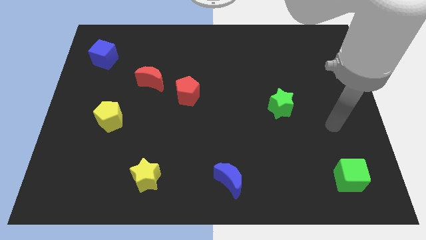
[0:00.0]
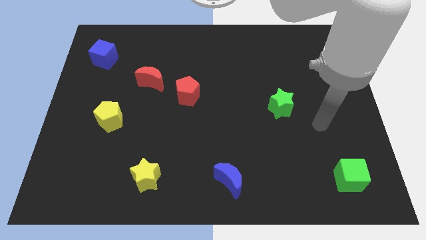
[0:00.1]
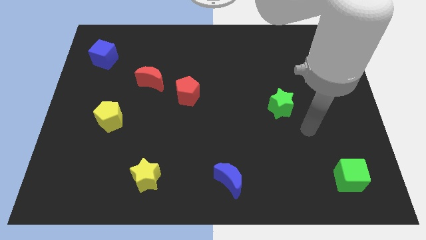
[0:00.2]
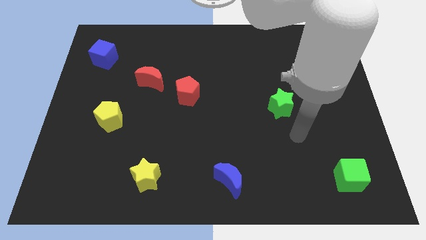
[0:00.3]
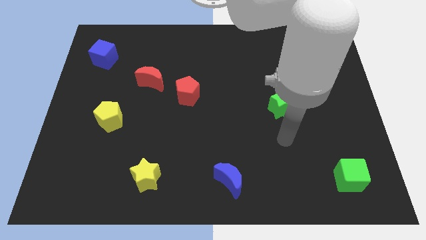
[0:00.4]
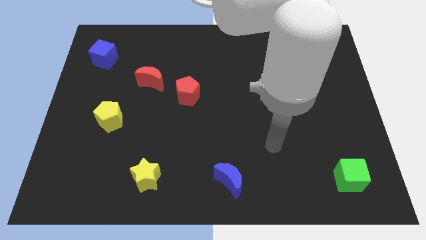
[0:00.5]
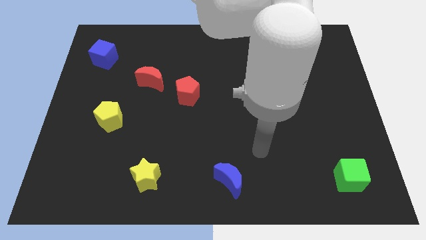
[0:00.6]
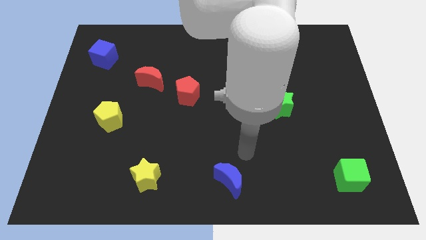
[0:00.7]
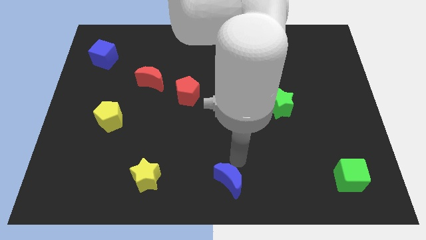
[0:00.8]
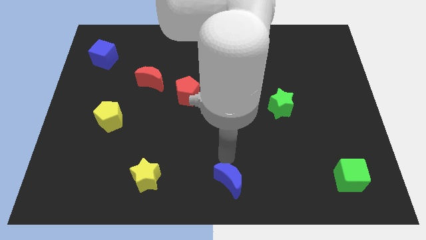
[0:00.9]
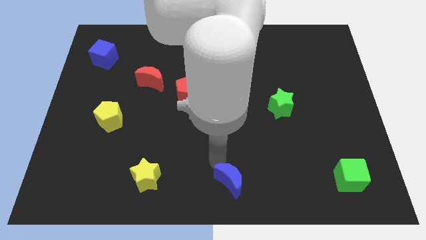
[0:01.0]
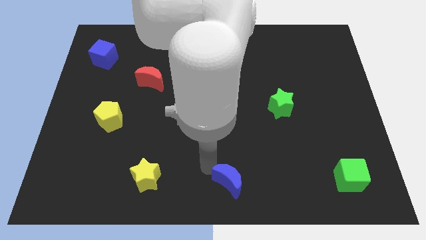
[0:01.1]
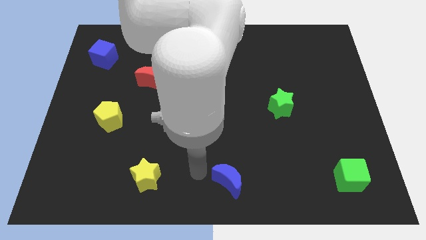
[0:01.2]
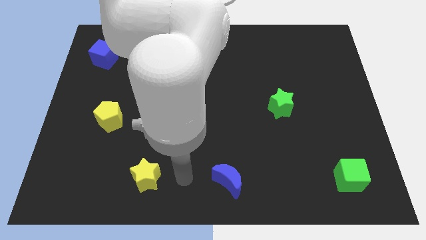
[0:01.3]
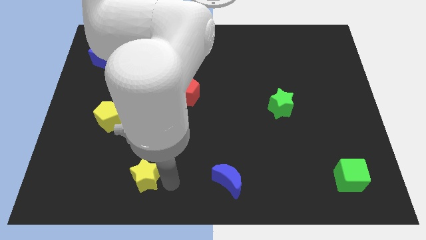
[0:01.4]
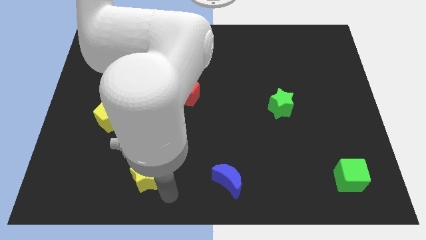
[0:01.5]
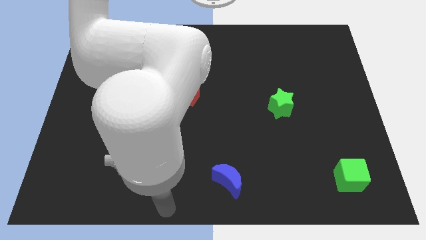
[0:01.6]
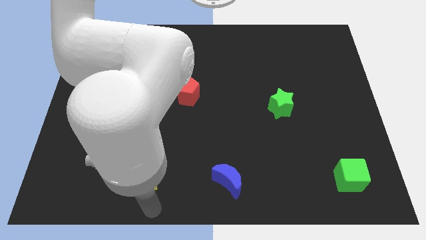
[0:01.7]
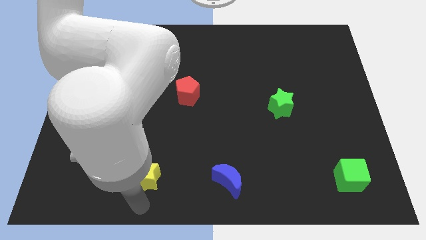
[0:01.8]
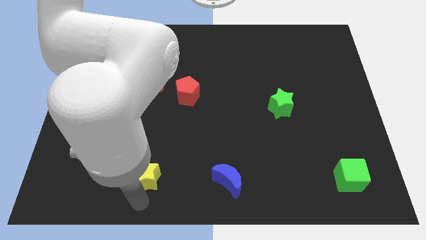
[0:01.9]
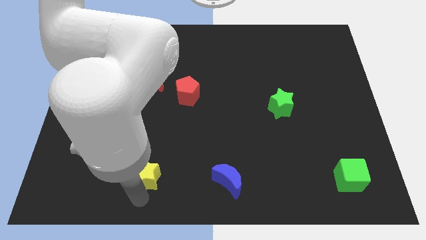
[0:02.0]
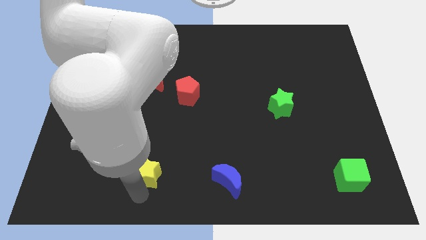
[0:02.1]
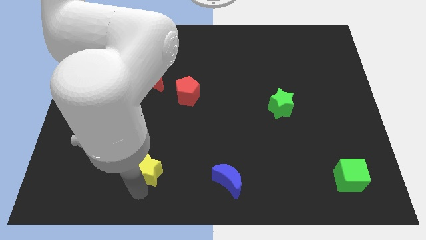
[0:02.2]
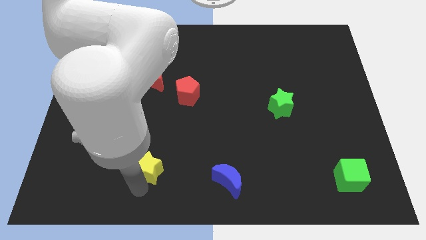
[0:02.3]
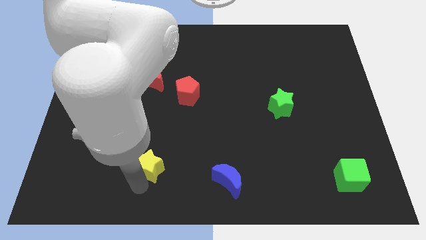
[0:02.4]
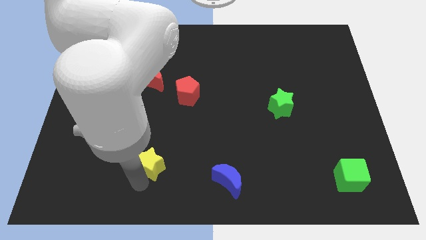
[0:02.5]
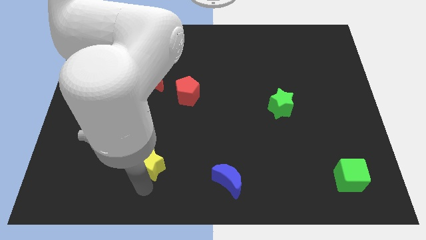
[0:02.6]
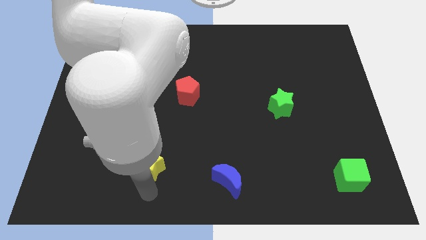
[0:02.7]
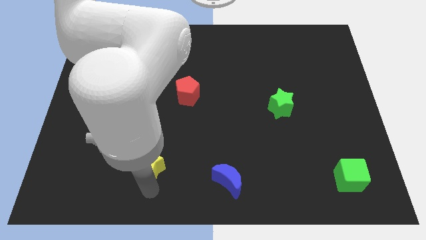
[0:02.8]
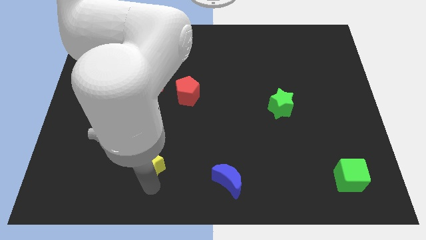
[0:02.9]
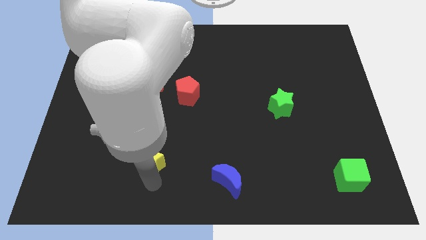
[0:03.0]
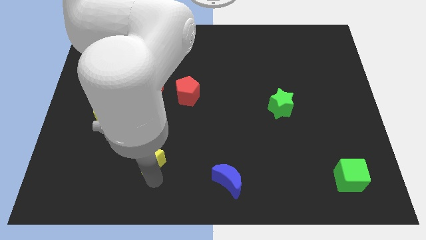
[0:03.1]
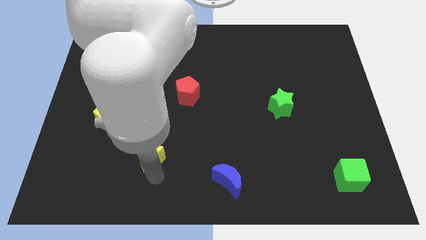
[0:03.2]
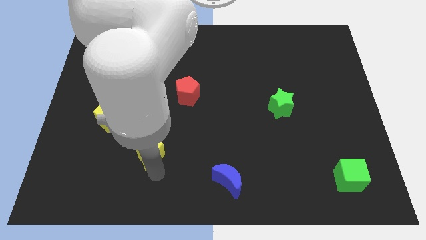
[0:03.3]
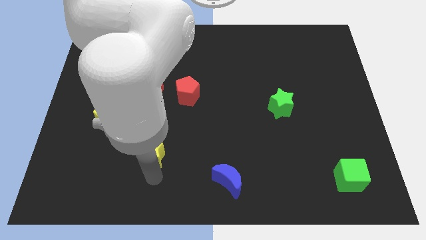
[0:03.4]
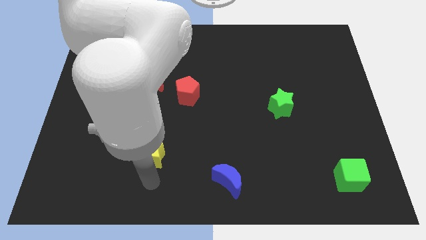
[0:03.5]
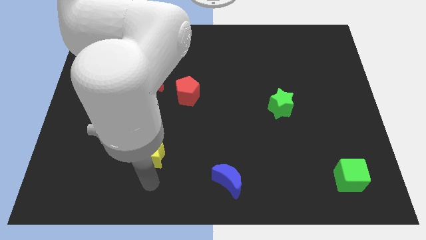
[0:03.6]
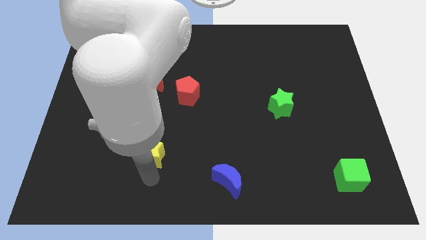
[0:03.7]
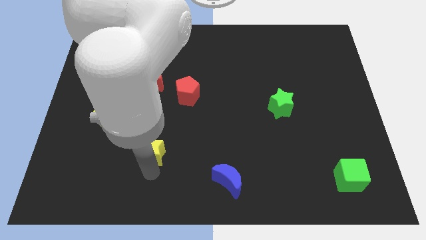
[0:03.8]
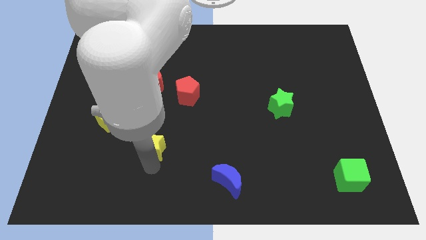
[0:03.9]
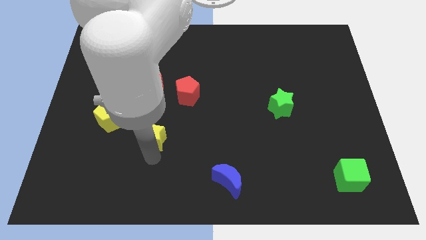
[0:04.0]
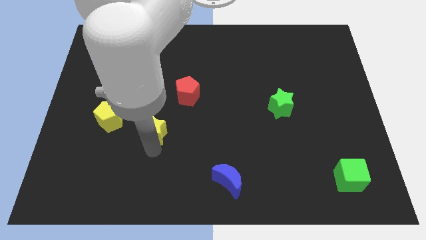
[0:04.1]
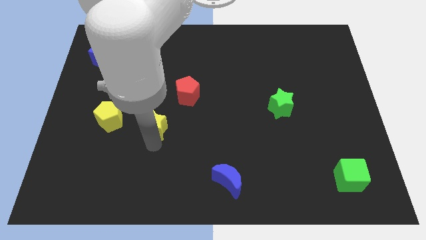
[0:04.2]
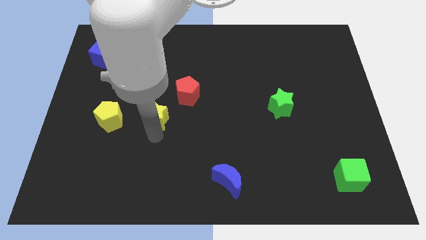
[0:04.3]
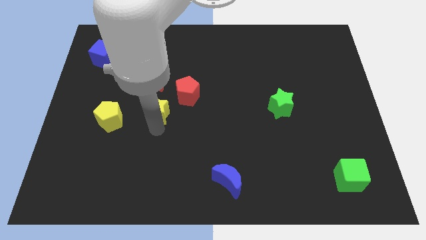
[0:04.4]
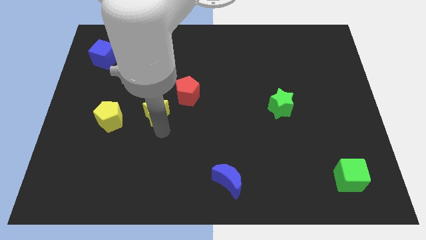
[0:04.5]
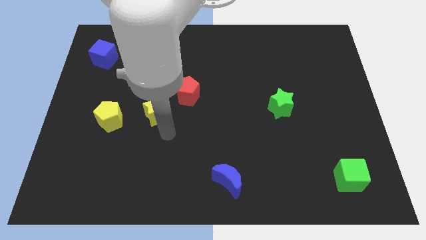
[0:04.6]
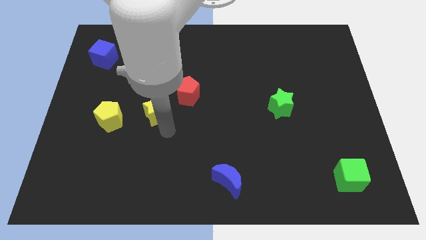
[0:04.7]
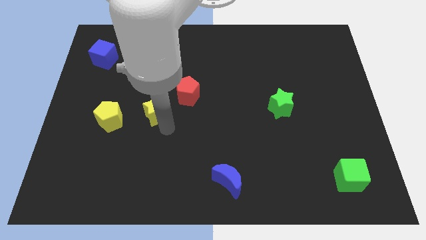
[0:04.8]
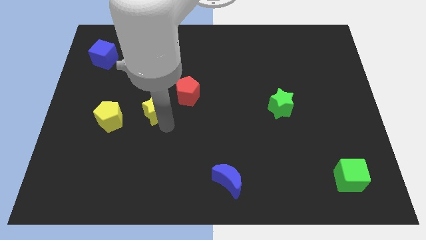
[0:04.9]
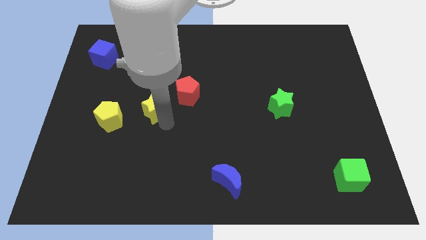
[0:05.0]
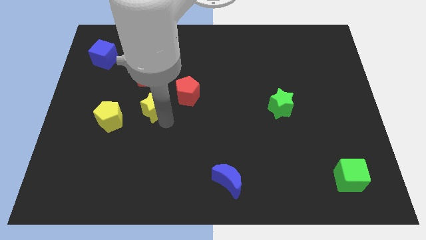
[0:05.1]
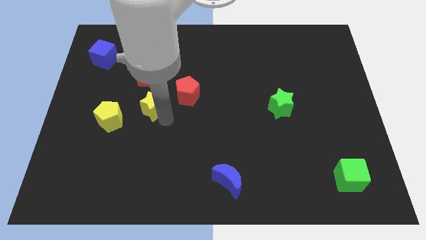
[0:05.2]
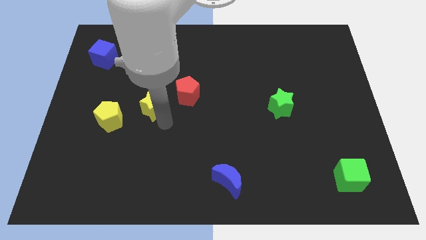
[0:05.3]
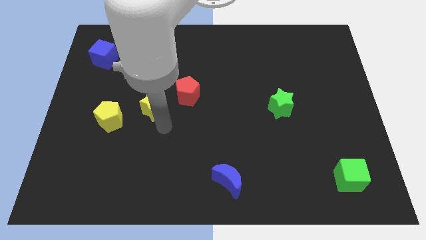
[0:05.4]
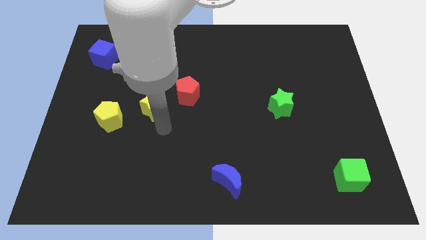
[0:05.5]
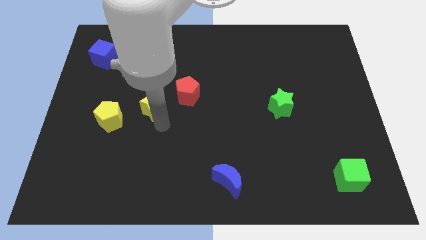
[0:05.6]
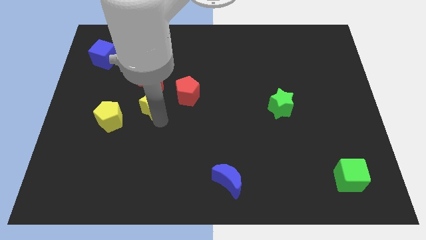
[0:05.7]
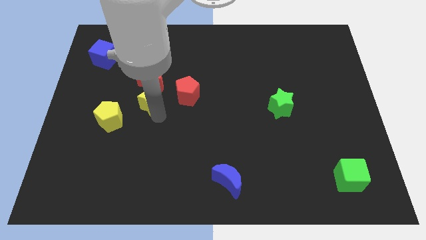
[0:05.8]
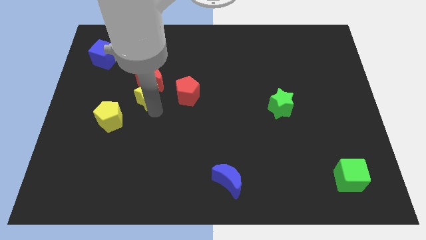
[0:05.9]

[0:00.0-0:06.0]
put the yellow star next to the red moon

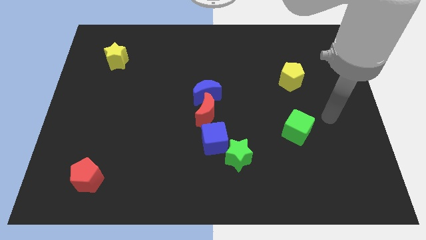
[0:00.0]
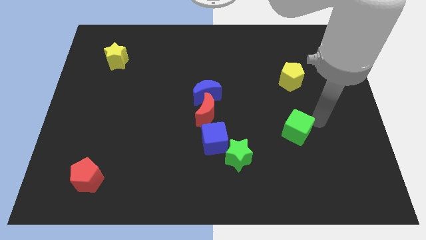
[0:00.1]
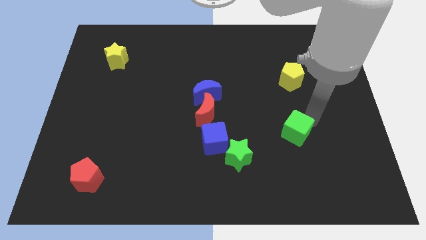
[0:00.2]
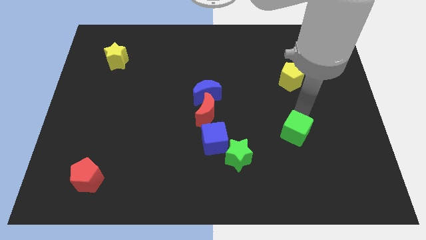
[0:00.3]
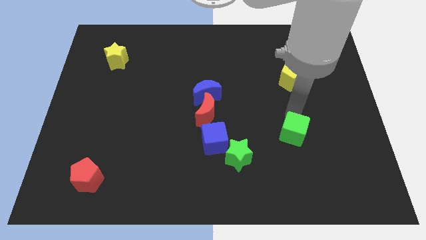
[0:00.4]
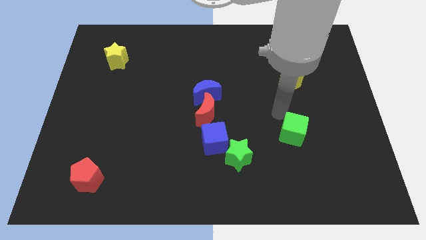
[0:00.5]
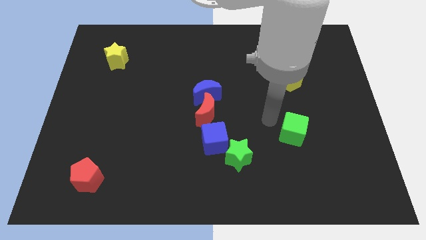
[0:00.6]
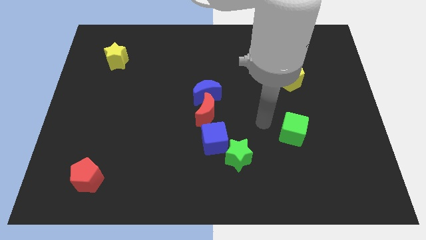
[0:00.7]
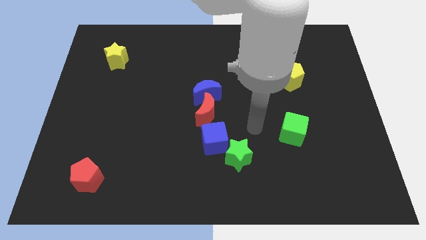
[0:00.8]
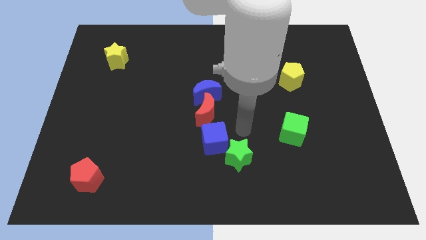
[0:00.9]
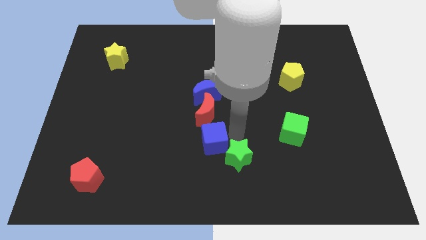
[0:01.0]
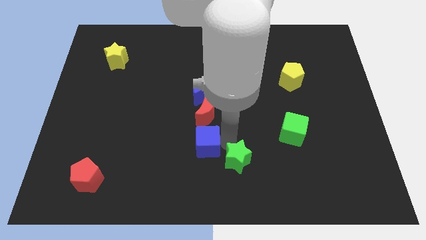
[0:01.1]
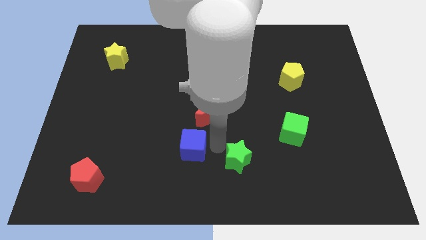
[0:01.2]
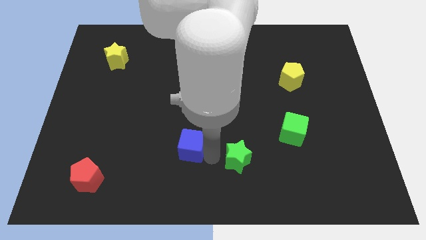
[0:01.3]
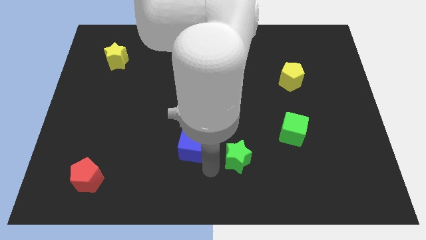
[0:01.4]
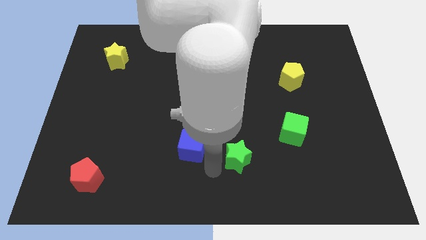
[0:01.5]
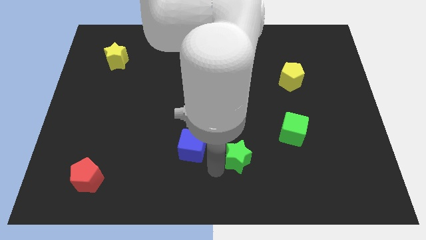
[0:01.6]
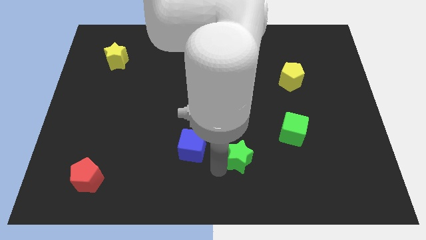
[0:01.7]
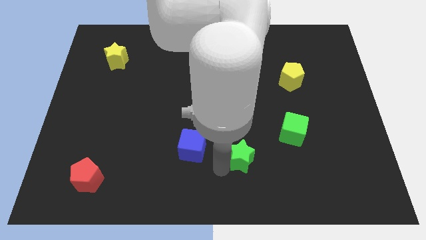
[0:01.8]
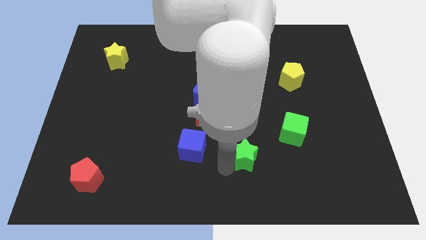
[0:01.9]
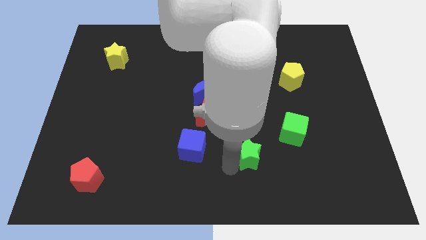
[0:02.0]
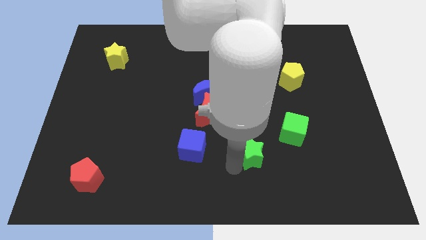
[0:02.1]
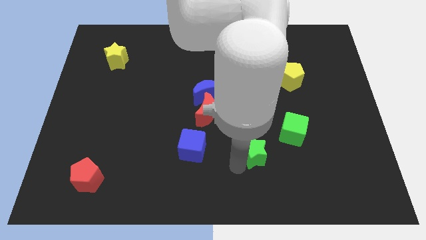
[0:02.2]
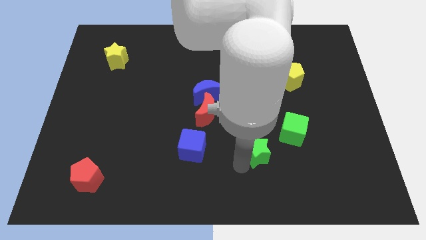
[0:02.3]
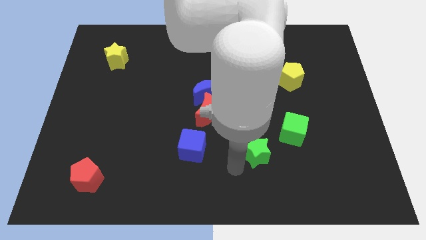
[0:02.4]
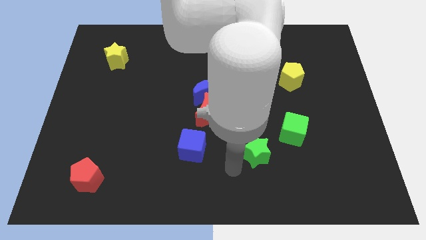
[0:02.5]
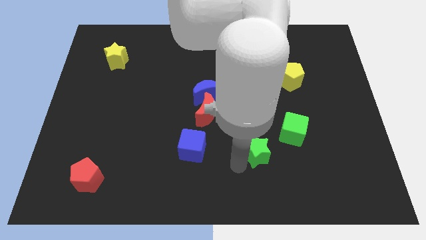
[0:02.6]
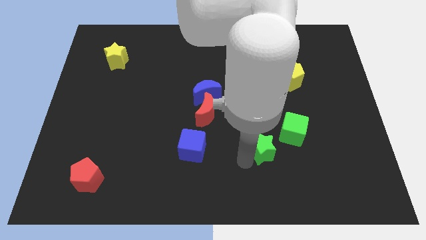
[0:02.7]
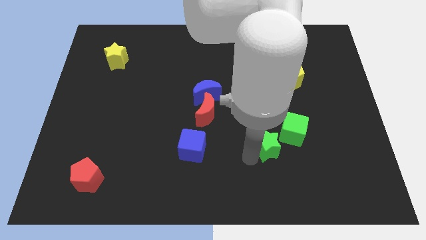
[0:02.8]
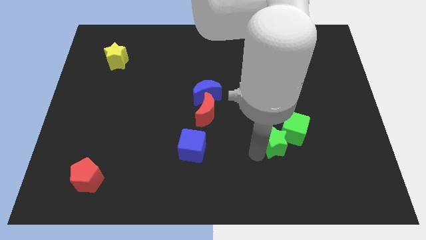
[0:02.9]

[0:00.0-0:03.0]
slide the green star towards the green cube
